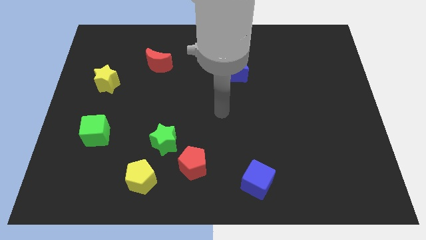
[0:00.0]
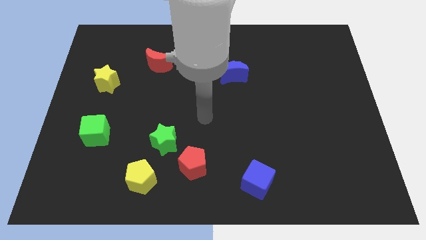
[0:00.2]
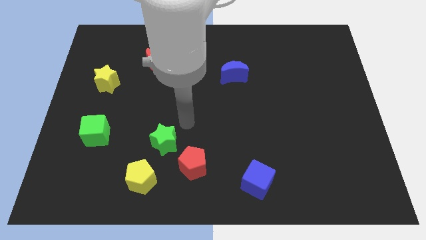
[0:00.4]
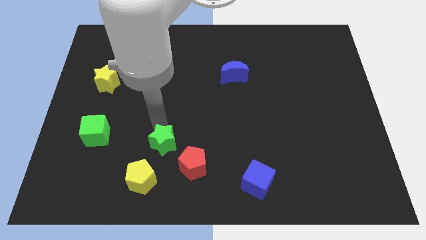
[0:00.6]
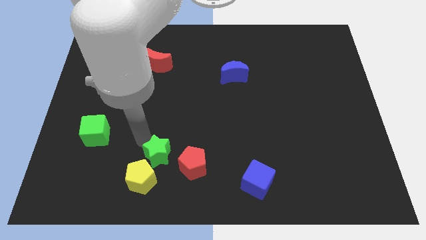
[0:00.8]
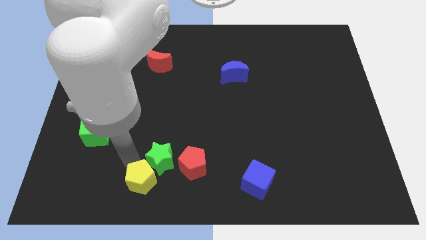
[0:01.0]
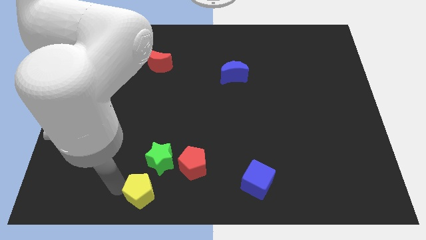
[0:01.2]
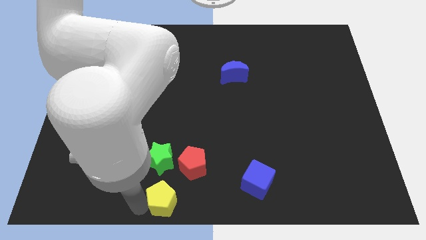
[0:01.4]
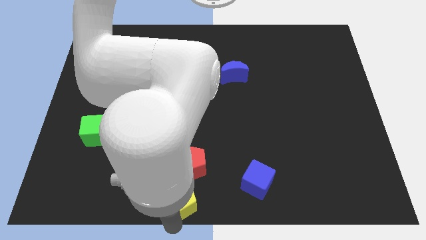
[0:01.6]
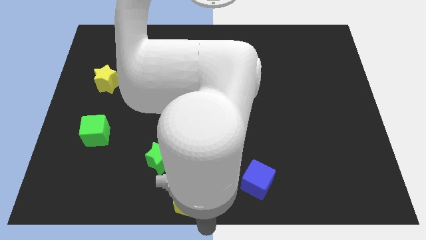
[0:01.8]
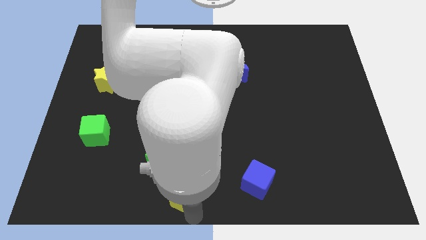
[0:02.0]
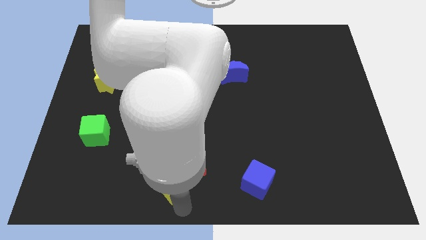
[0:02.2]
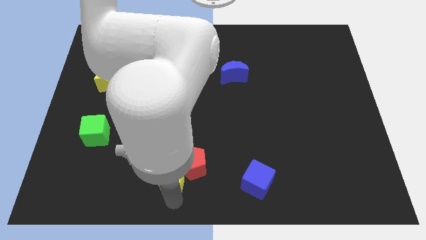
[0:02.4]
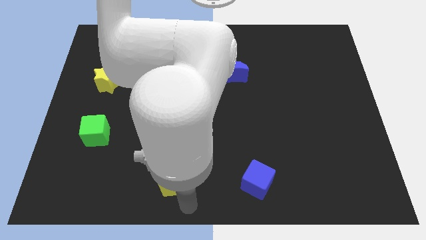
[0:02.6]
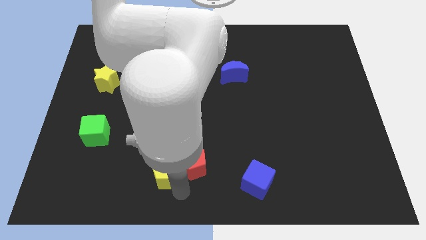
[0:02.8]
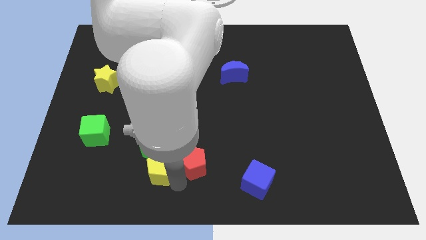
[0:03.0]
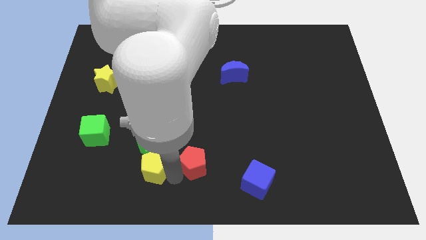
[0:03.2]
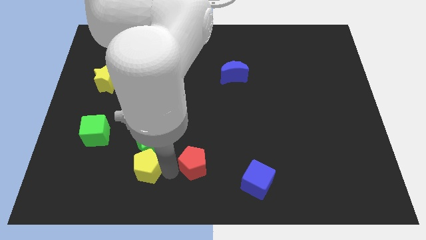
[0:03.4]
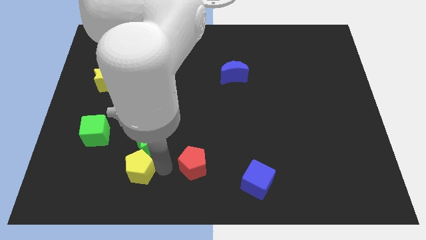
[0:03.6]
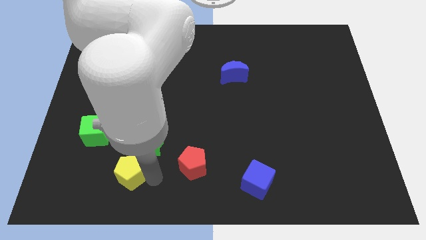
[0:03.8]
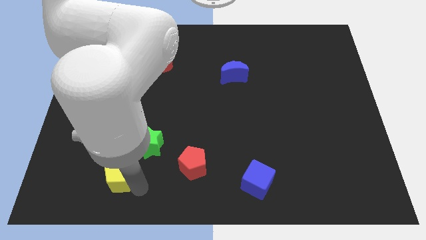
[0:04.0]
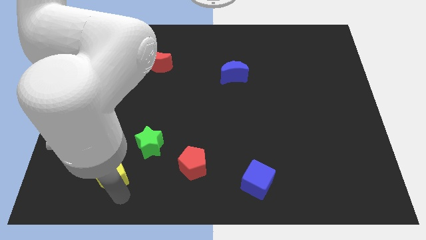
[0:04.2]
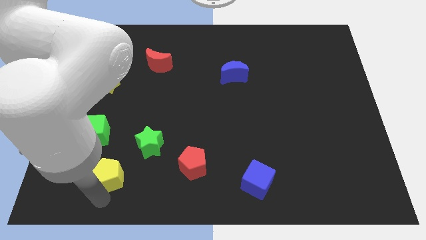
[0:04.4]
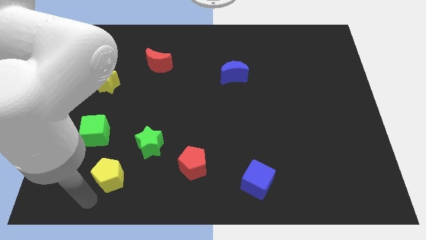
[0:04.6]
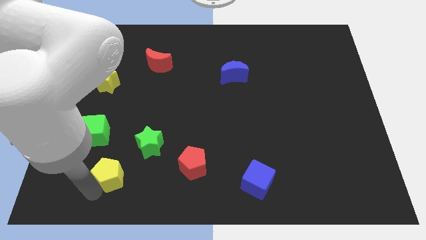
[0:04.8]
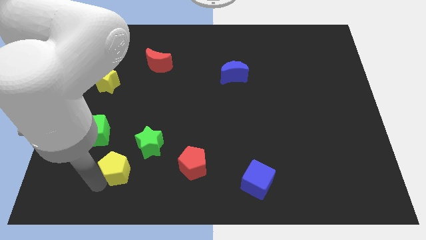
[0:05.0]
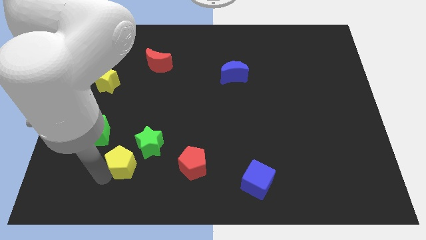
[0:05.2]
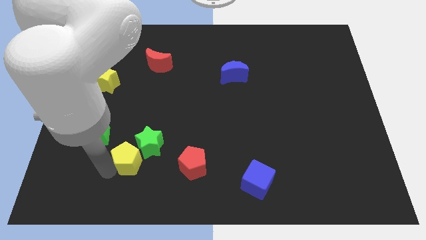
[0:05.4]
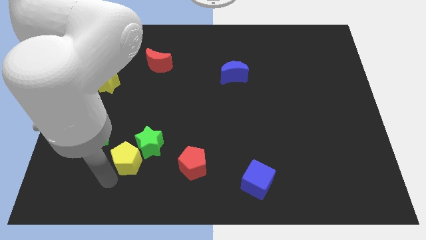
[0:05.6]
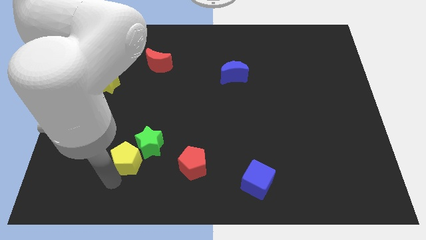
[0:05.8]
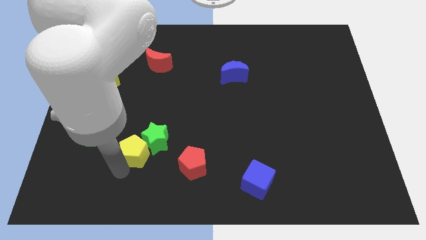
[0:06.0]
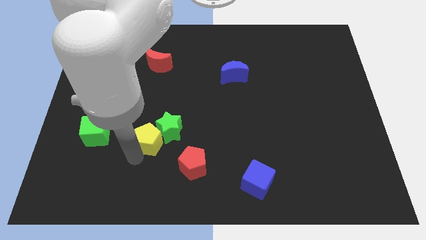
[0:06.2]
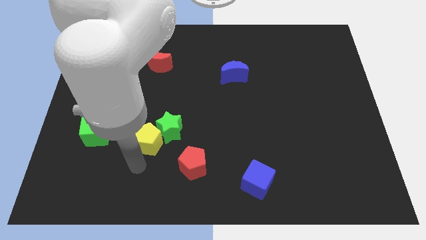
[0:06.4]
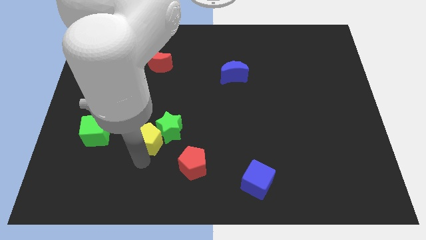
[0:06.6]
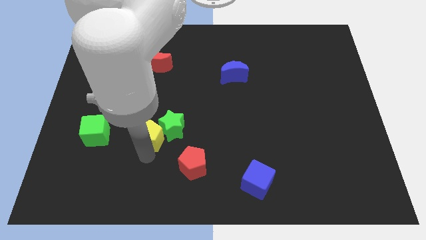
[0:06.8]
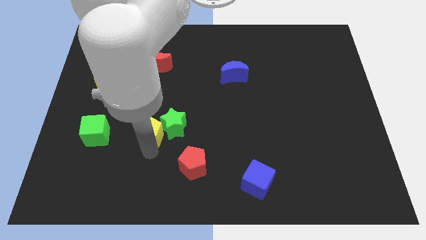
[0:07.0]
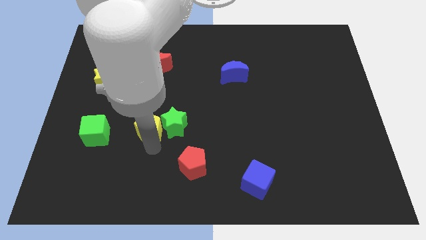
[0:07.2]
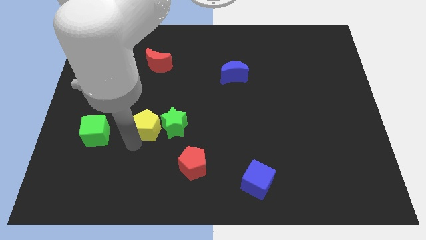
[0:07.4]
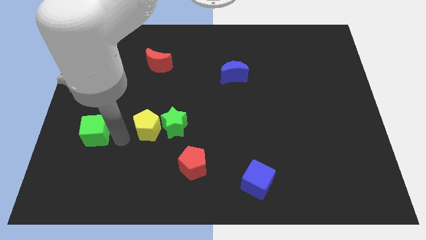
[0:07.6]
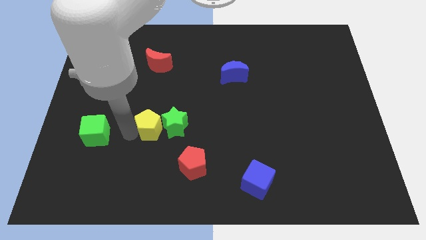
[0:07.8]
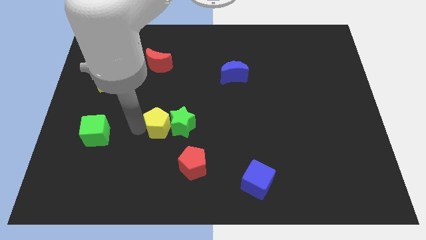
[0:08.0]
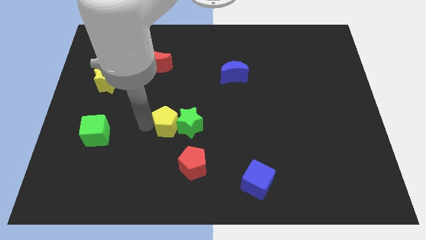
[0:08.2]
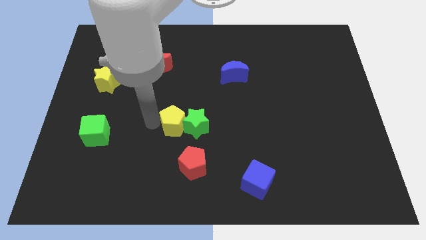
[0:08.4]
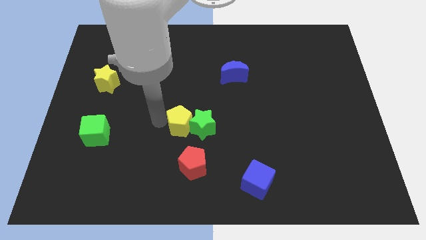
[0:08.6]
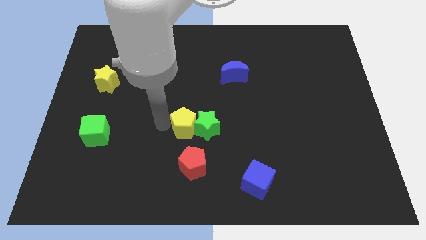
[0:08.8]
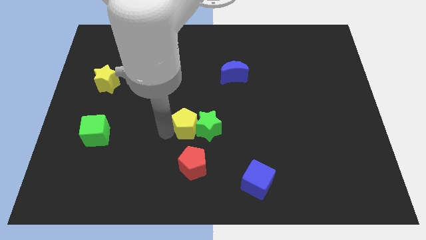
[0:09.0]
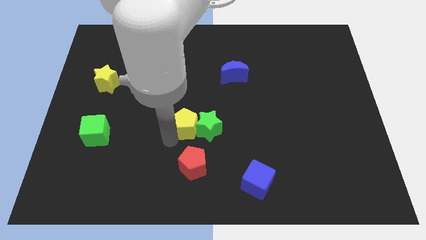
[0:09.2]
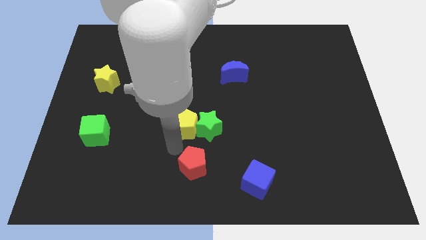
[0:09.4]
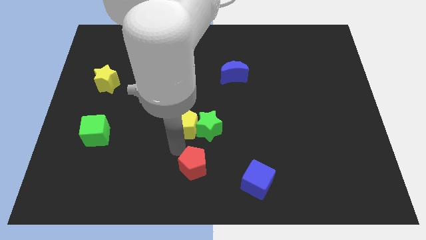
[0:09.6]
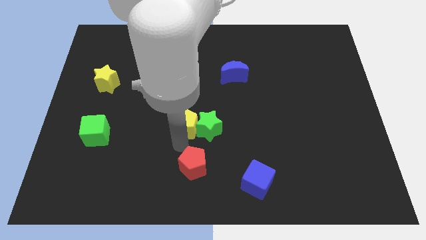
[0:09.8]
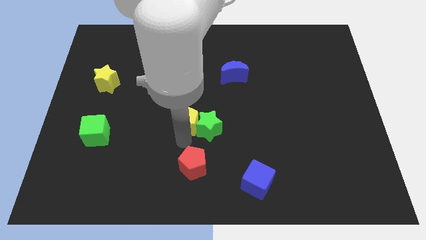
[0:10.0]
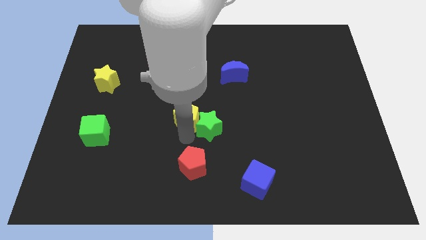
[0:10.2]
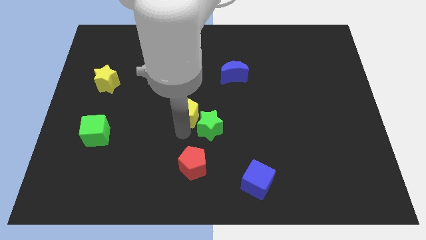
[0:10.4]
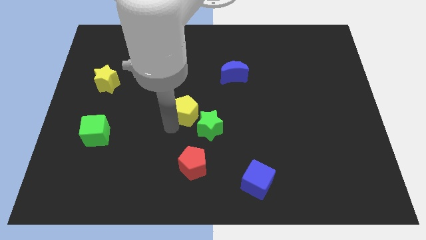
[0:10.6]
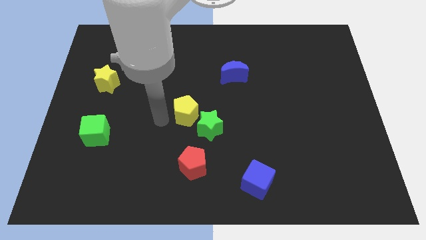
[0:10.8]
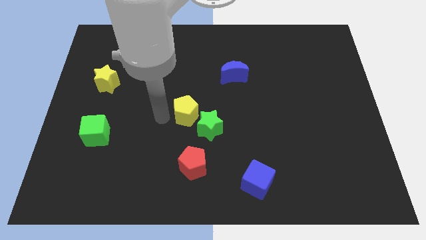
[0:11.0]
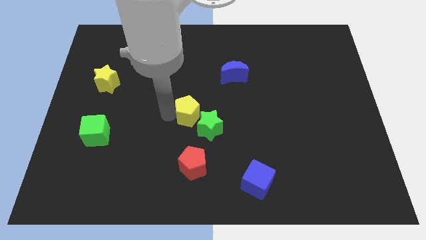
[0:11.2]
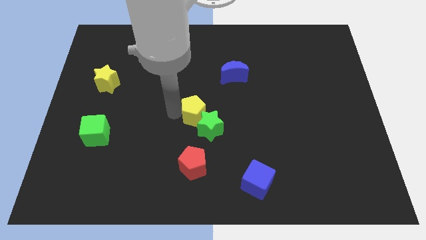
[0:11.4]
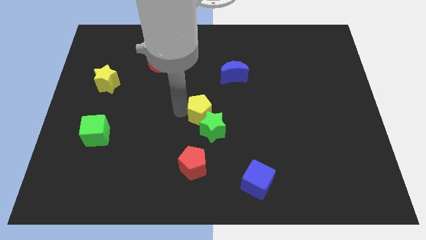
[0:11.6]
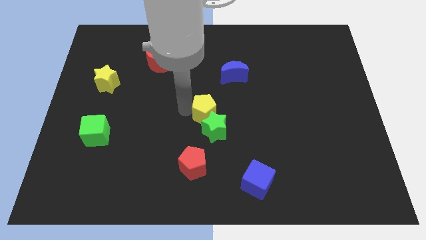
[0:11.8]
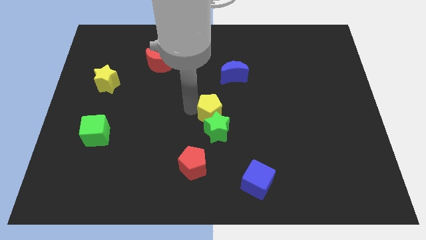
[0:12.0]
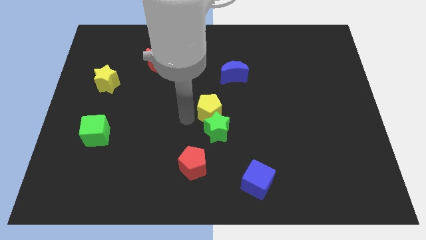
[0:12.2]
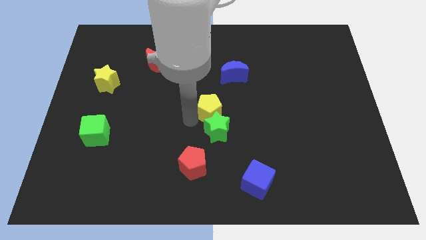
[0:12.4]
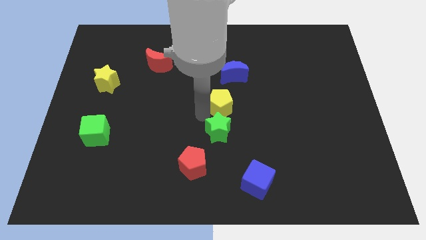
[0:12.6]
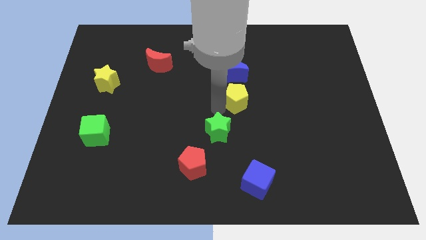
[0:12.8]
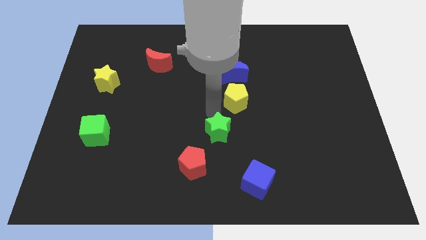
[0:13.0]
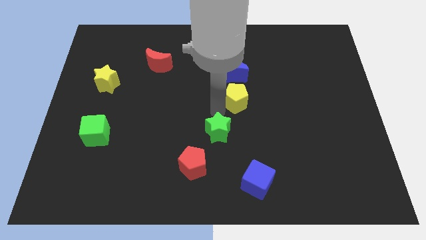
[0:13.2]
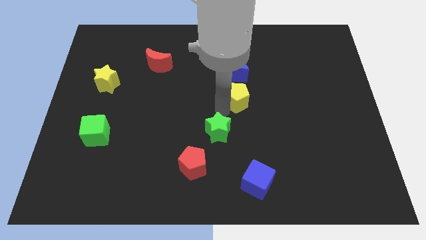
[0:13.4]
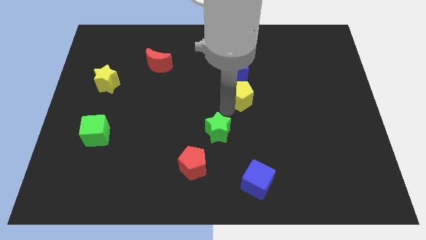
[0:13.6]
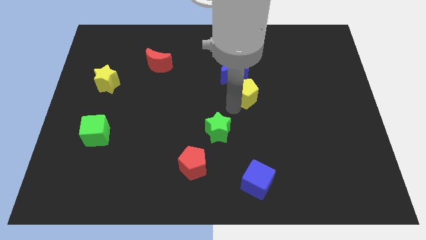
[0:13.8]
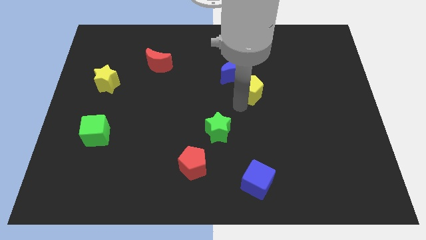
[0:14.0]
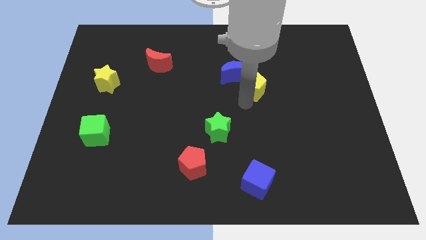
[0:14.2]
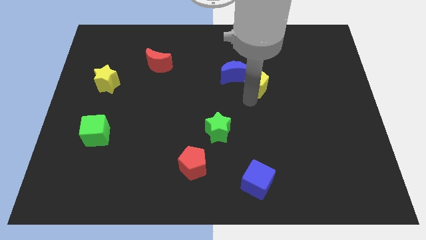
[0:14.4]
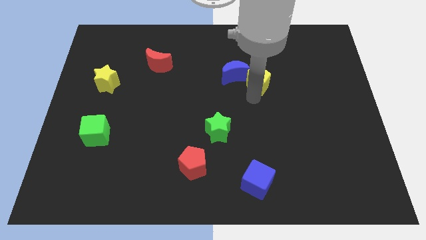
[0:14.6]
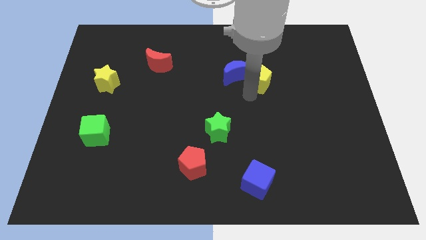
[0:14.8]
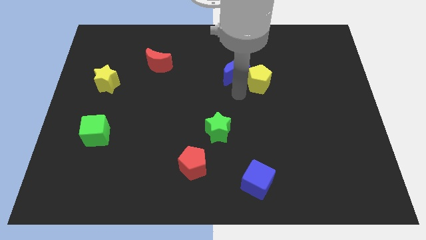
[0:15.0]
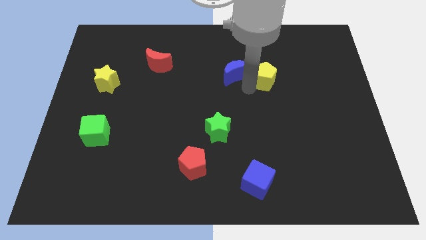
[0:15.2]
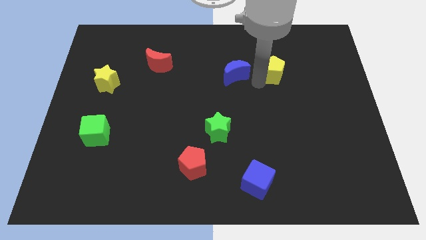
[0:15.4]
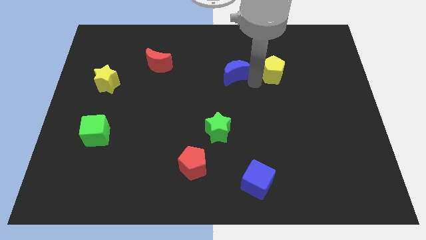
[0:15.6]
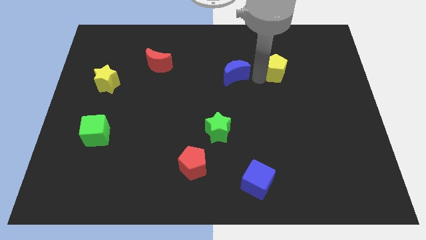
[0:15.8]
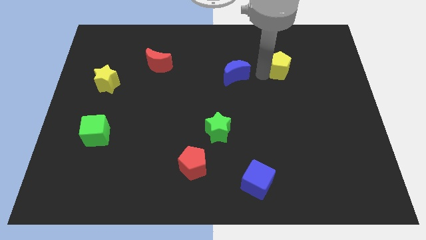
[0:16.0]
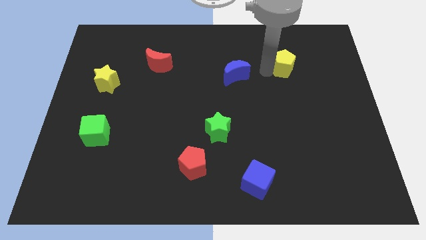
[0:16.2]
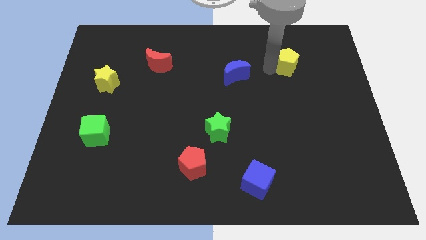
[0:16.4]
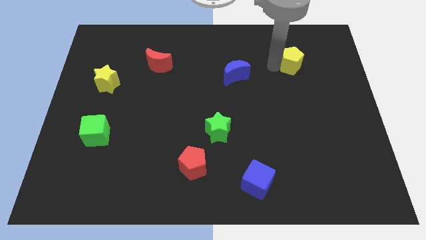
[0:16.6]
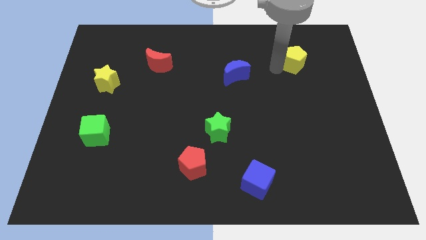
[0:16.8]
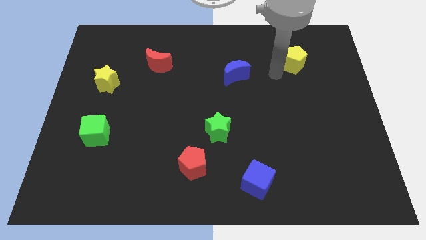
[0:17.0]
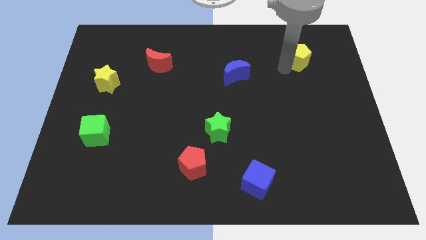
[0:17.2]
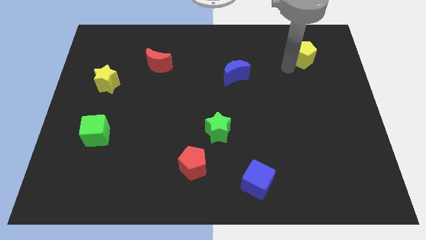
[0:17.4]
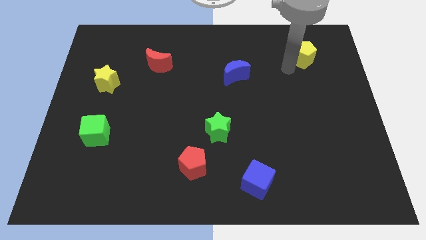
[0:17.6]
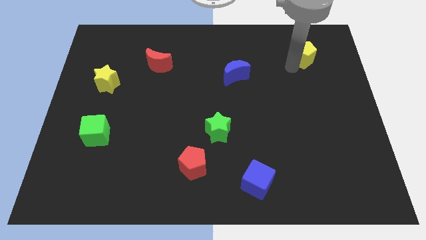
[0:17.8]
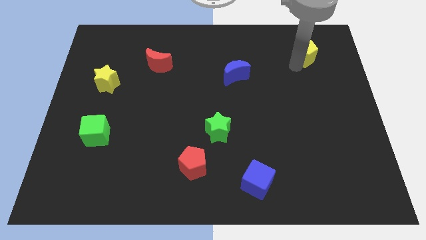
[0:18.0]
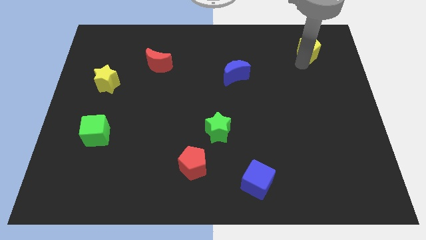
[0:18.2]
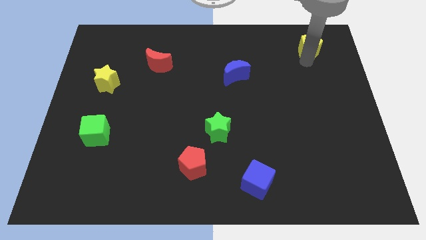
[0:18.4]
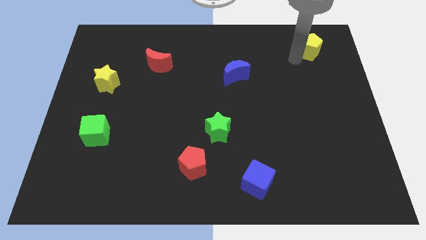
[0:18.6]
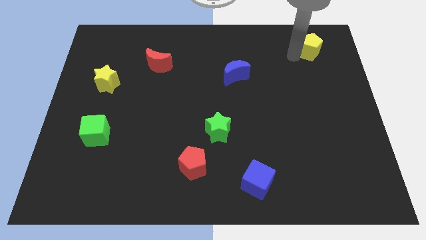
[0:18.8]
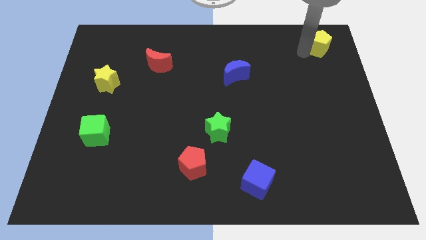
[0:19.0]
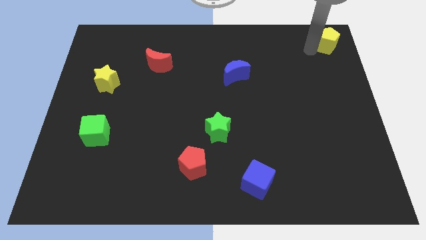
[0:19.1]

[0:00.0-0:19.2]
move the yellow pentagon to the upper right corner
